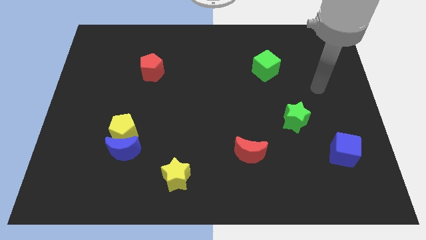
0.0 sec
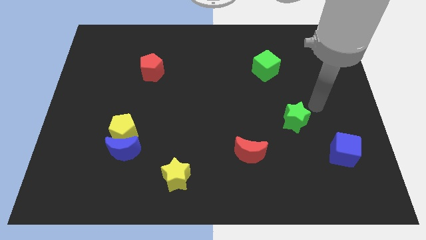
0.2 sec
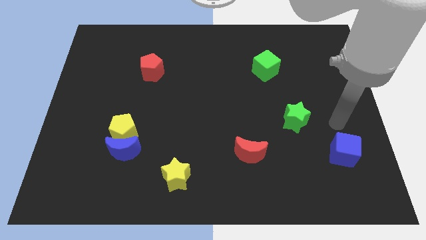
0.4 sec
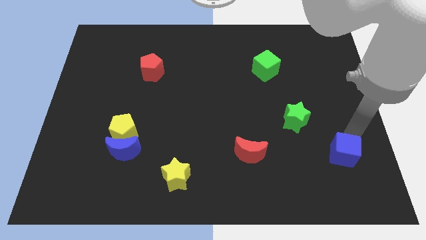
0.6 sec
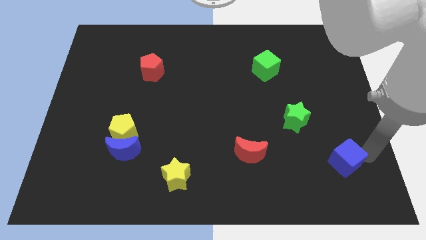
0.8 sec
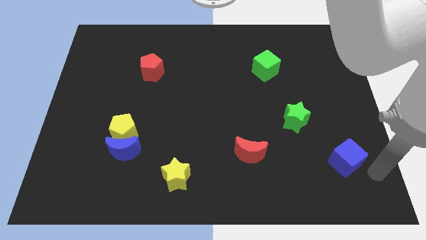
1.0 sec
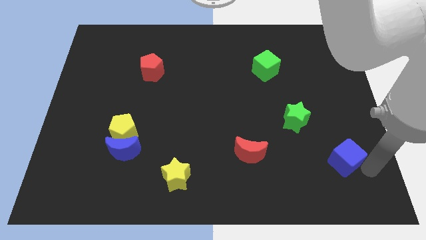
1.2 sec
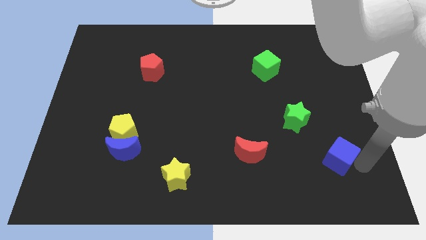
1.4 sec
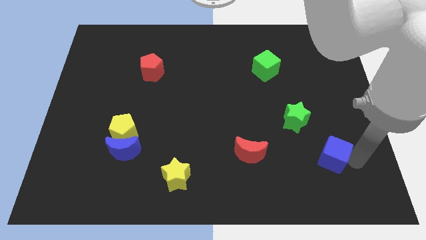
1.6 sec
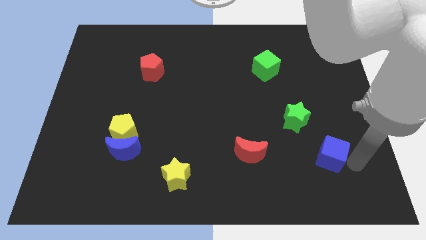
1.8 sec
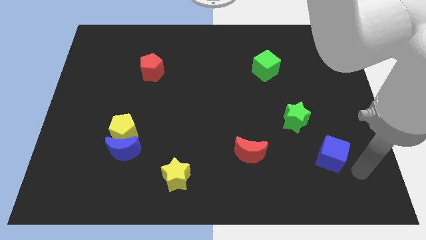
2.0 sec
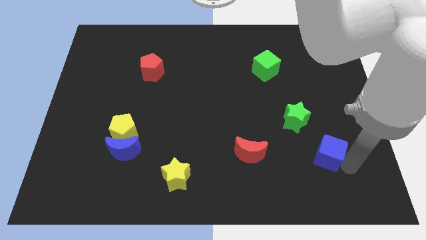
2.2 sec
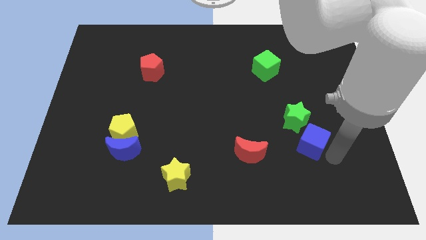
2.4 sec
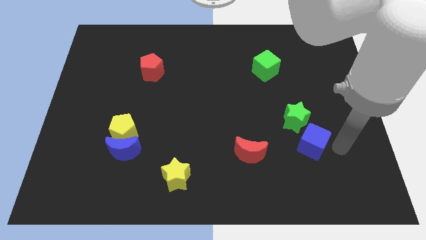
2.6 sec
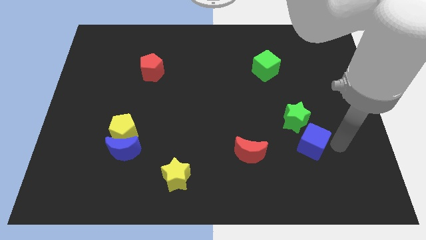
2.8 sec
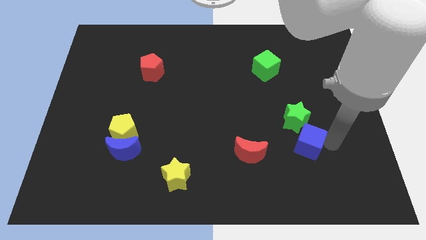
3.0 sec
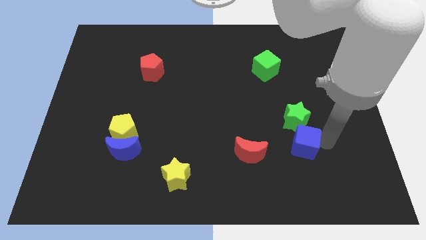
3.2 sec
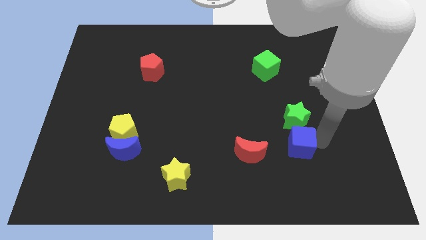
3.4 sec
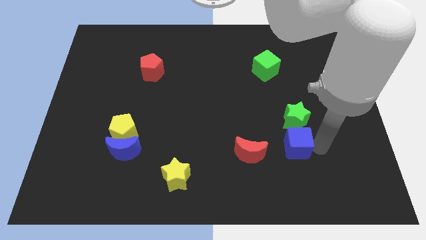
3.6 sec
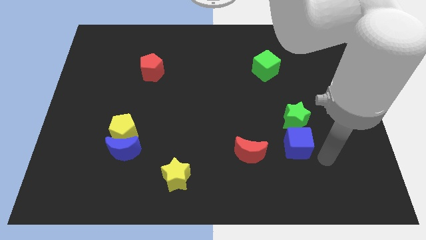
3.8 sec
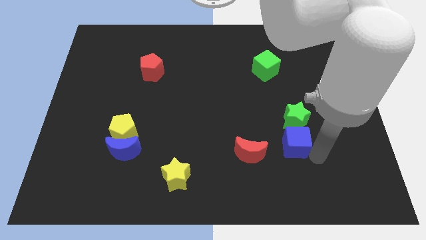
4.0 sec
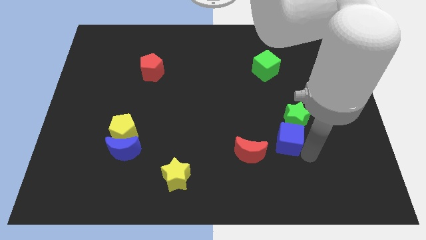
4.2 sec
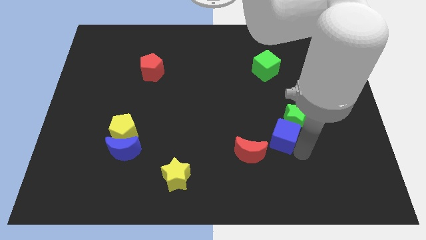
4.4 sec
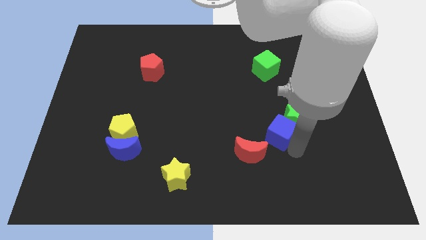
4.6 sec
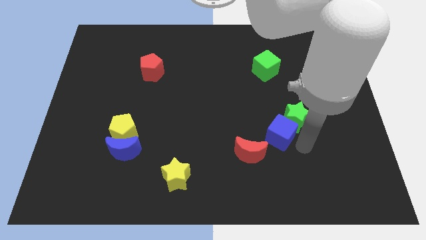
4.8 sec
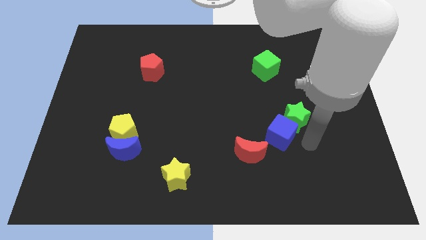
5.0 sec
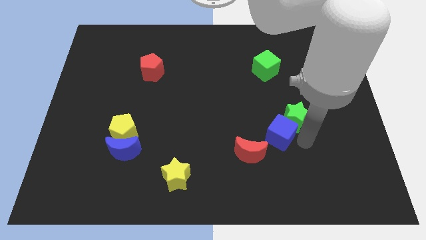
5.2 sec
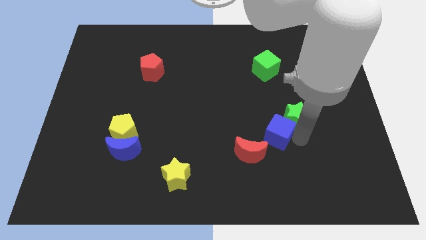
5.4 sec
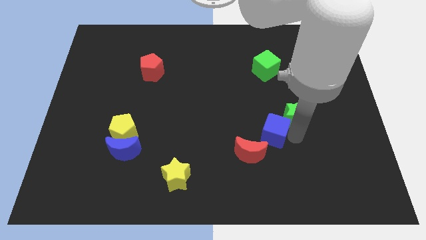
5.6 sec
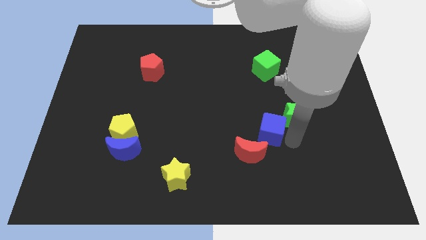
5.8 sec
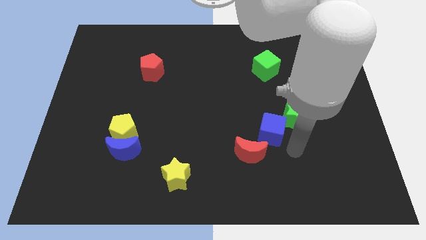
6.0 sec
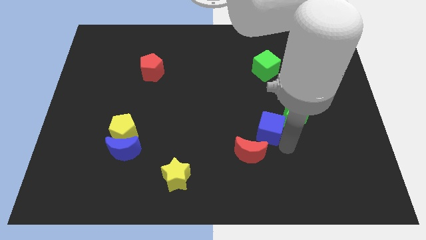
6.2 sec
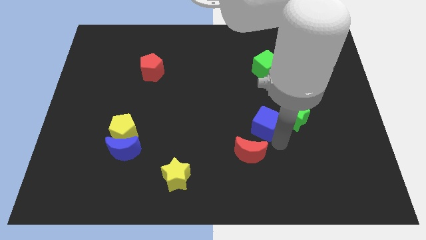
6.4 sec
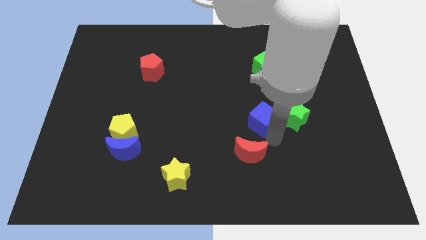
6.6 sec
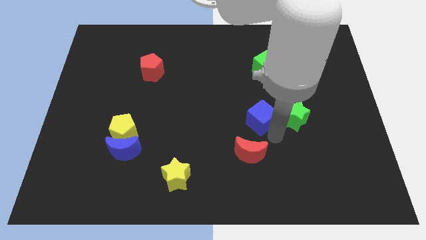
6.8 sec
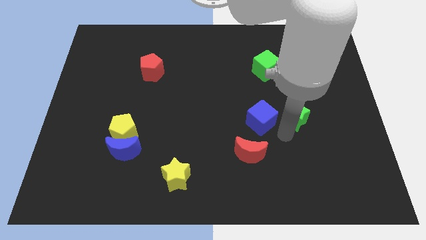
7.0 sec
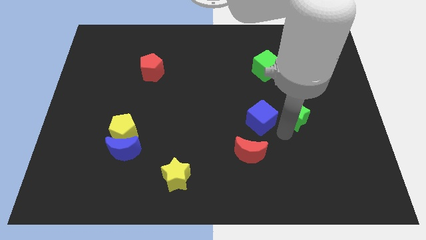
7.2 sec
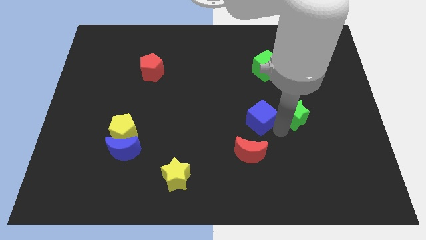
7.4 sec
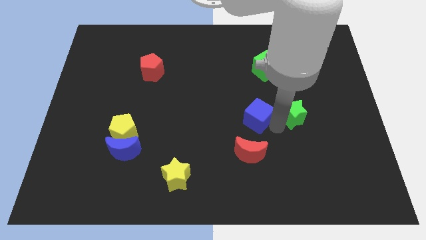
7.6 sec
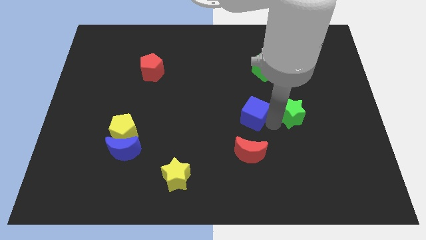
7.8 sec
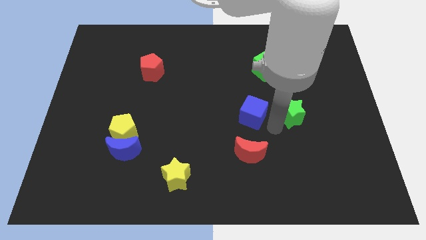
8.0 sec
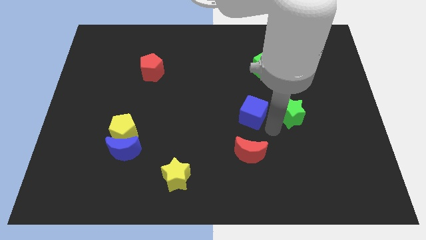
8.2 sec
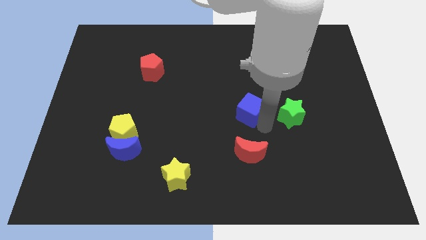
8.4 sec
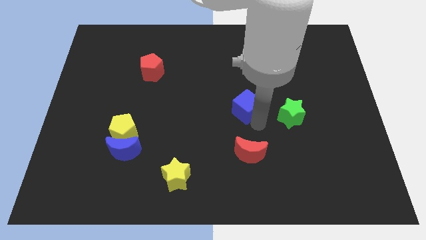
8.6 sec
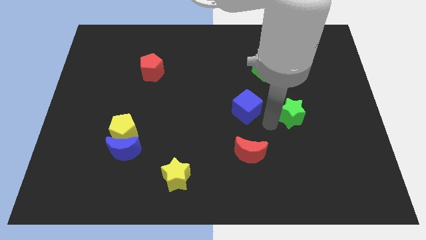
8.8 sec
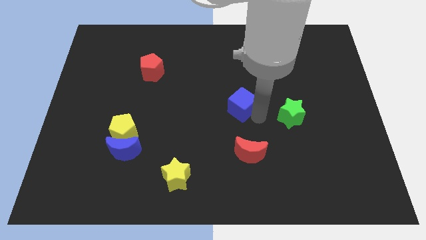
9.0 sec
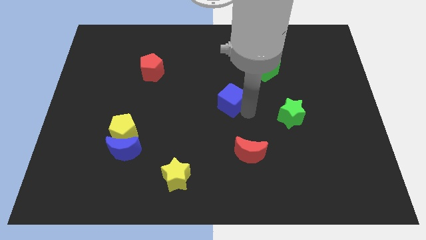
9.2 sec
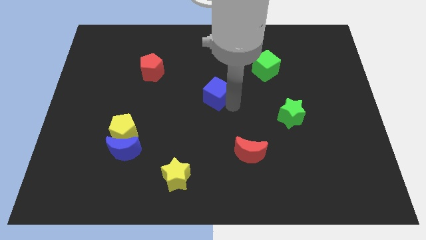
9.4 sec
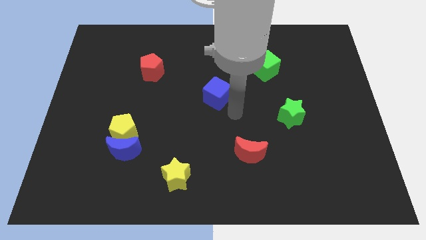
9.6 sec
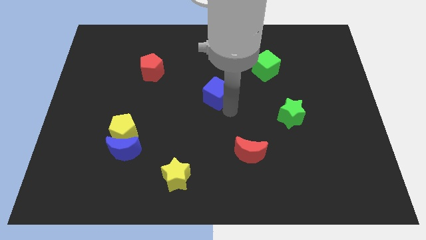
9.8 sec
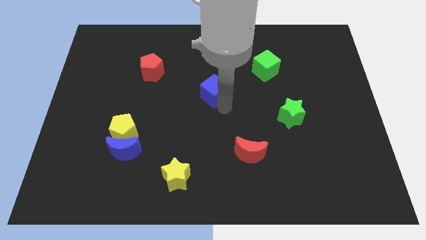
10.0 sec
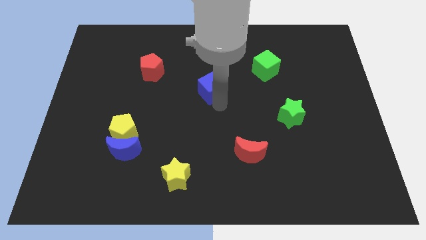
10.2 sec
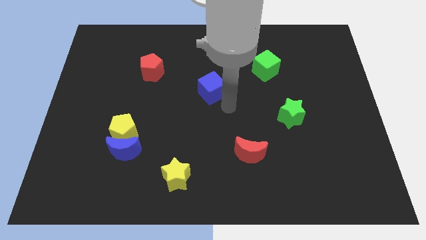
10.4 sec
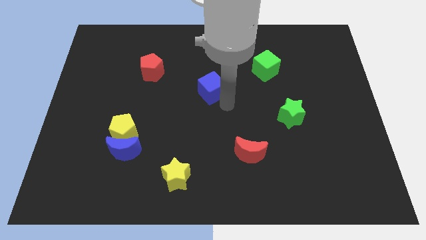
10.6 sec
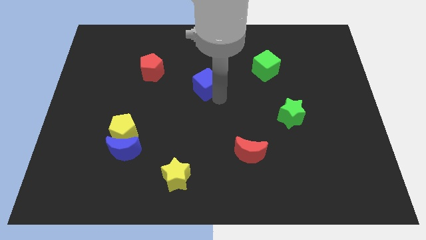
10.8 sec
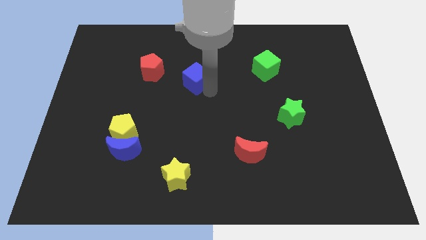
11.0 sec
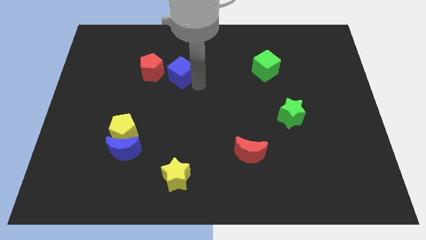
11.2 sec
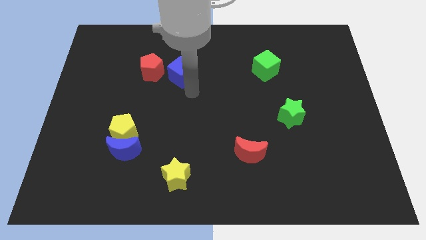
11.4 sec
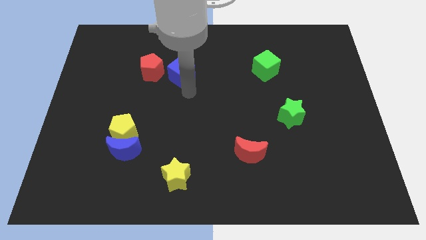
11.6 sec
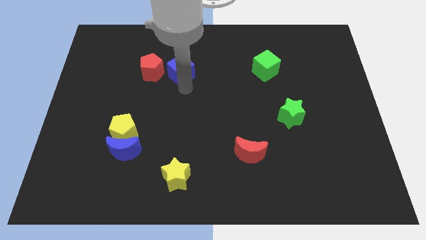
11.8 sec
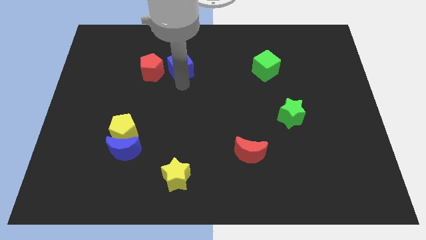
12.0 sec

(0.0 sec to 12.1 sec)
slide the blue cube to the top right of the red pentagon

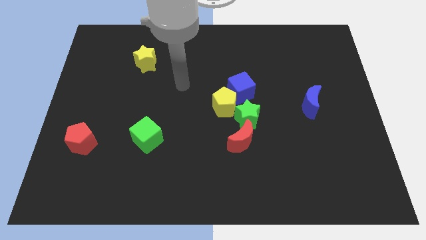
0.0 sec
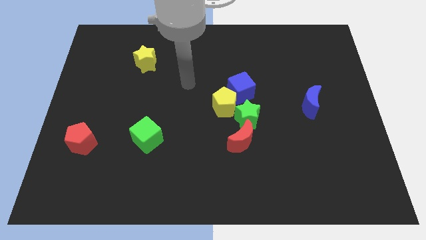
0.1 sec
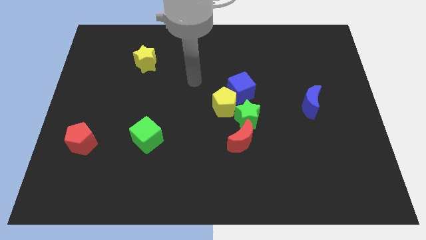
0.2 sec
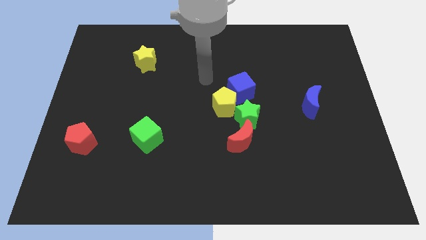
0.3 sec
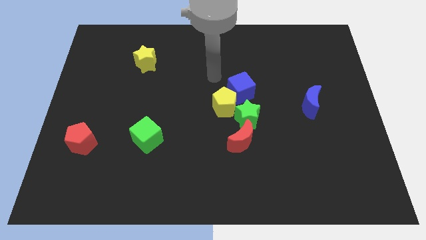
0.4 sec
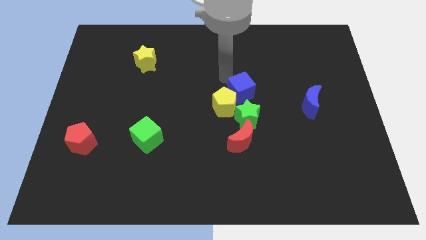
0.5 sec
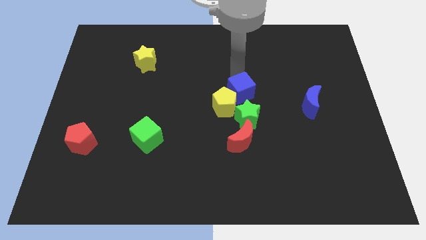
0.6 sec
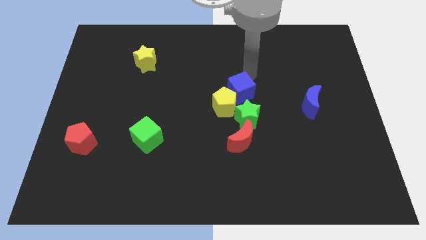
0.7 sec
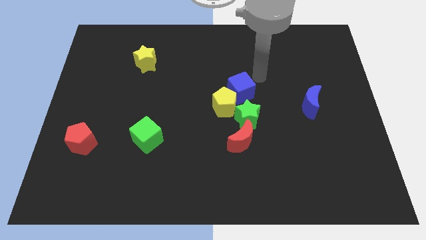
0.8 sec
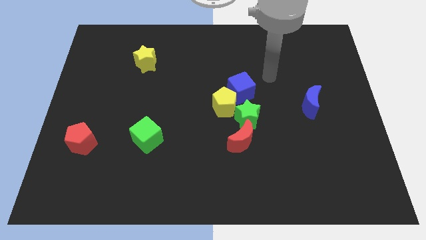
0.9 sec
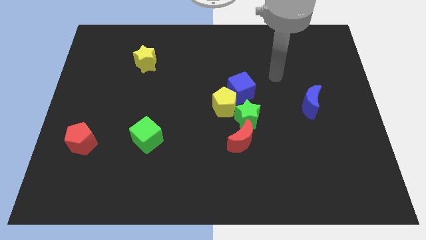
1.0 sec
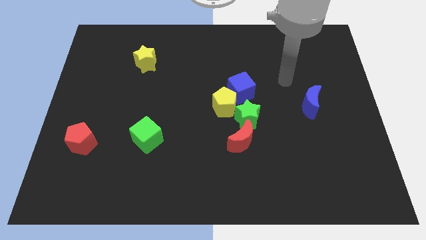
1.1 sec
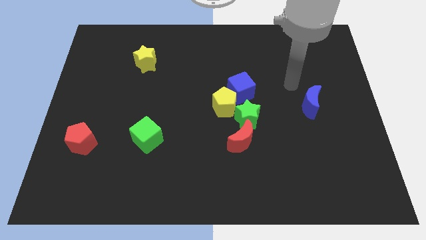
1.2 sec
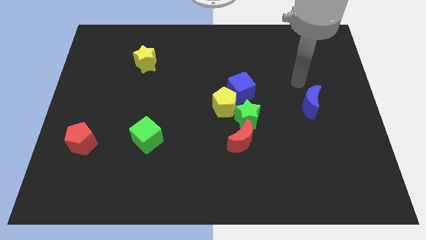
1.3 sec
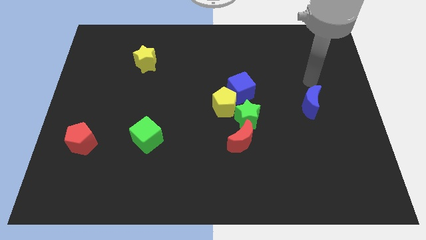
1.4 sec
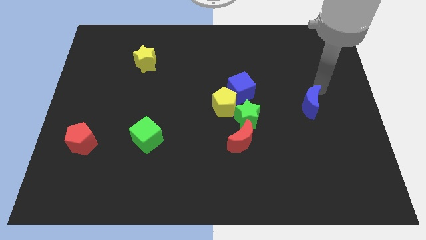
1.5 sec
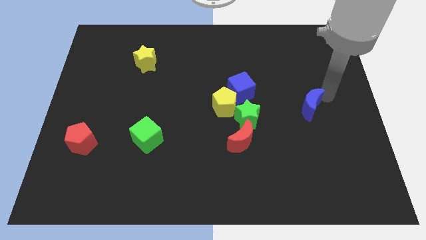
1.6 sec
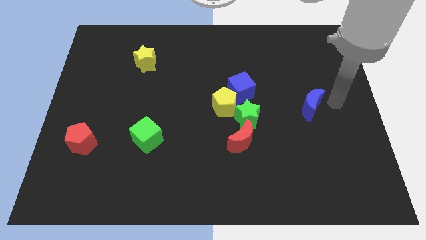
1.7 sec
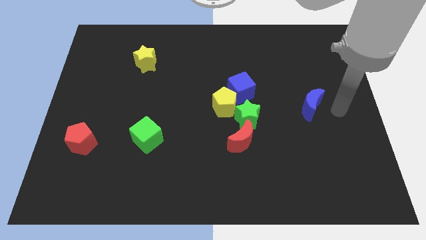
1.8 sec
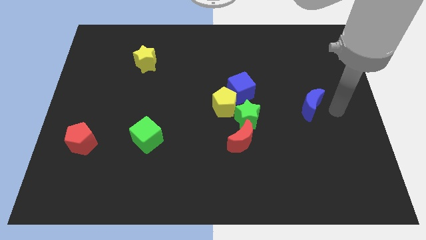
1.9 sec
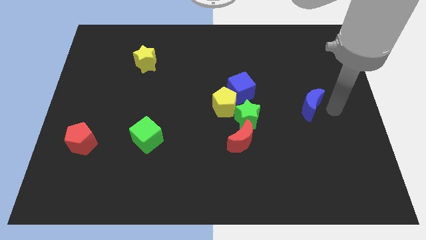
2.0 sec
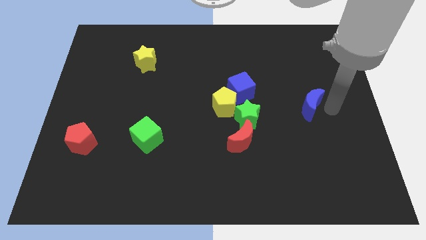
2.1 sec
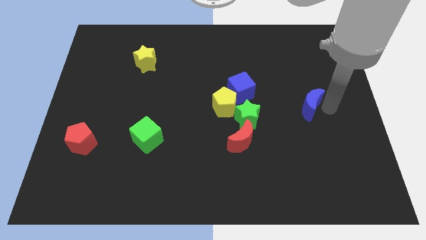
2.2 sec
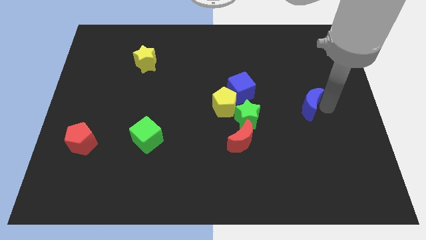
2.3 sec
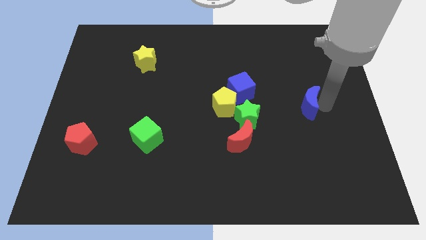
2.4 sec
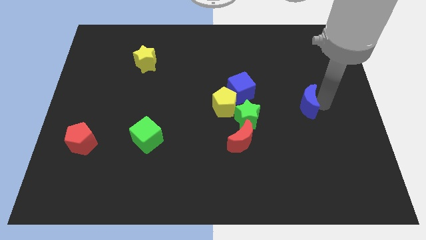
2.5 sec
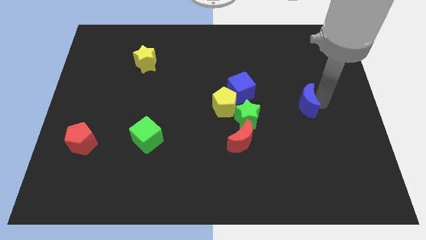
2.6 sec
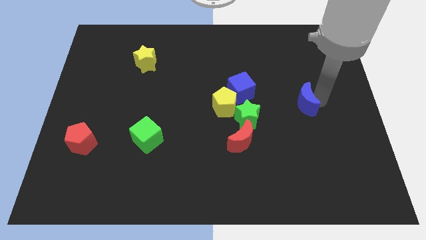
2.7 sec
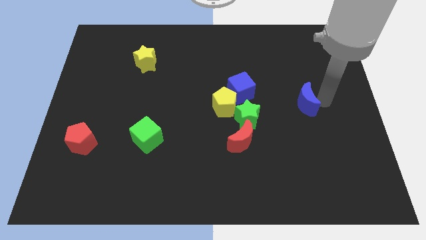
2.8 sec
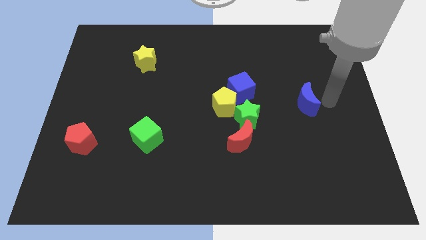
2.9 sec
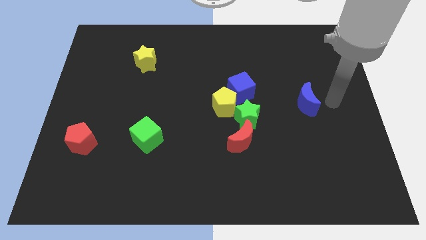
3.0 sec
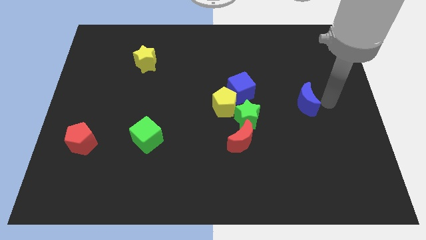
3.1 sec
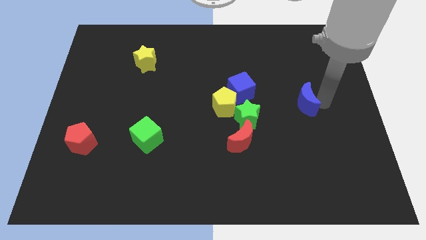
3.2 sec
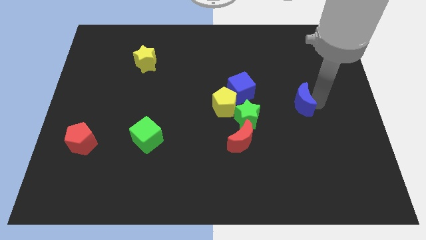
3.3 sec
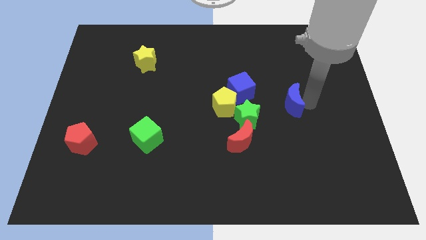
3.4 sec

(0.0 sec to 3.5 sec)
push the blue moon to the right of the yellow pentagon
